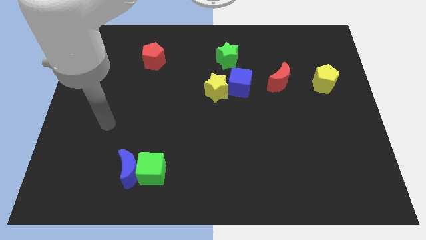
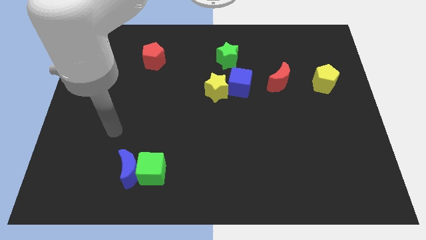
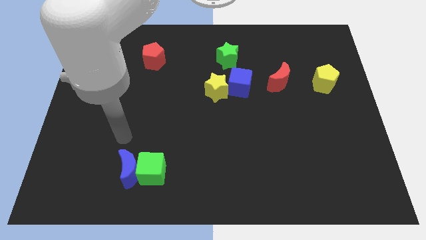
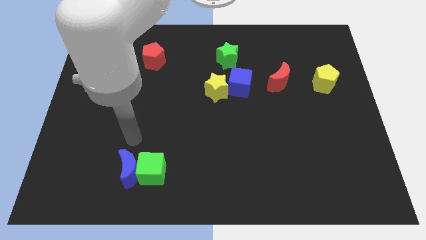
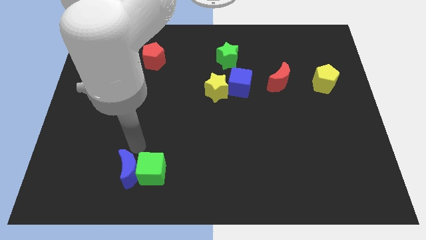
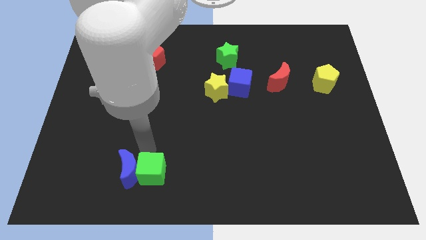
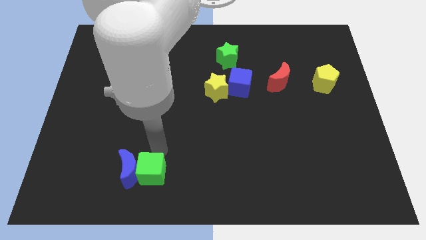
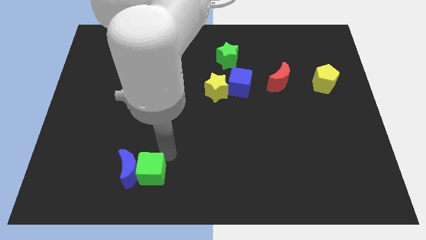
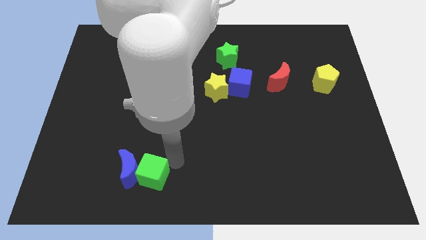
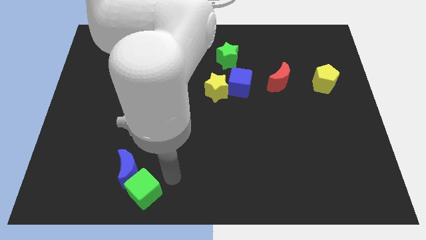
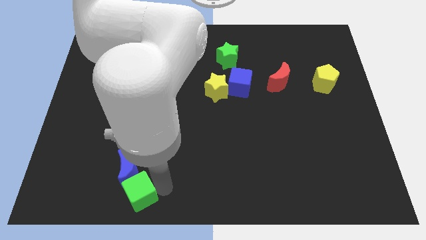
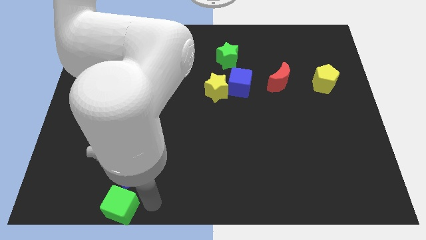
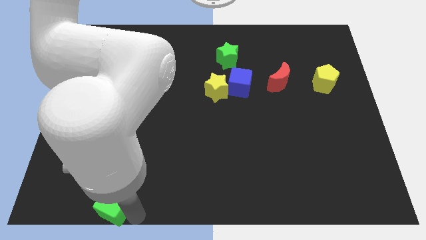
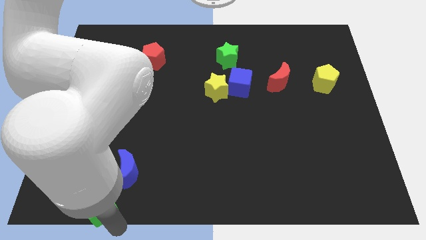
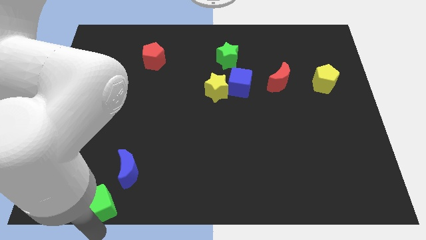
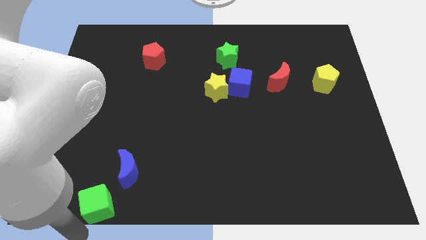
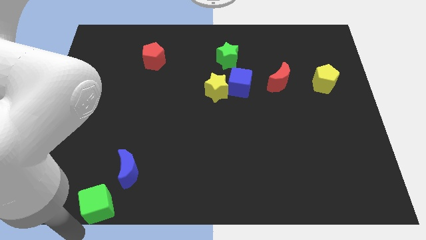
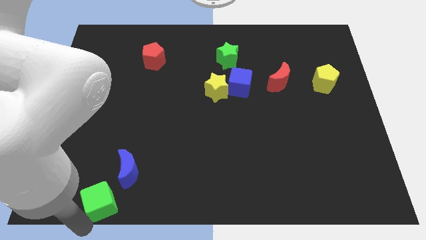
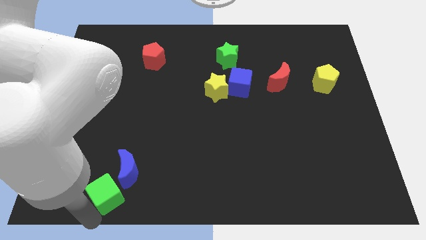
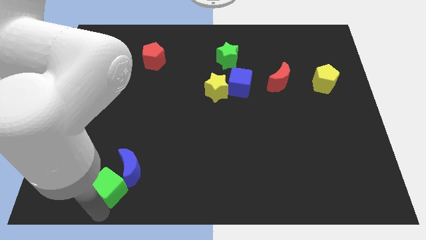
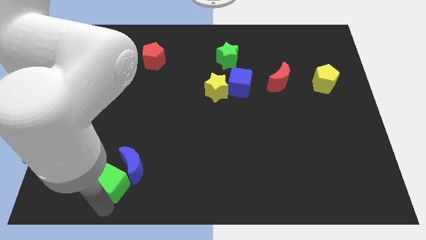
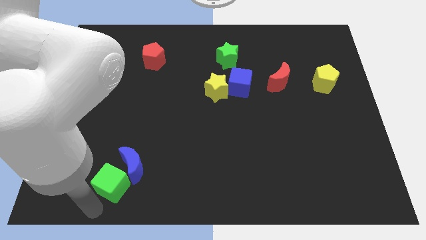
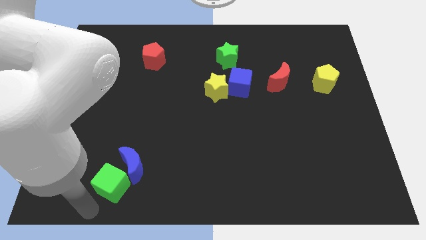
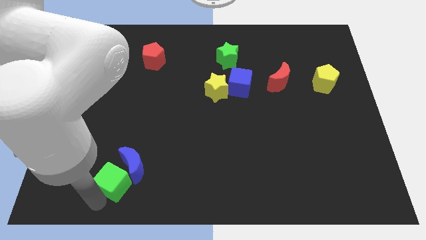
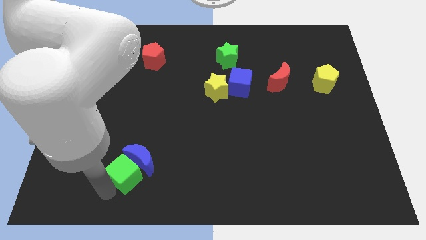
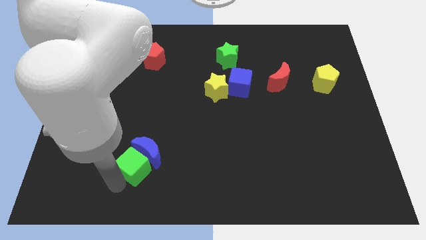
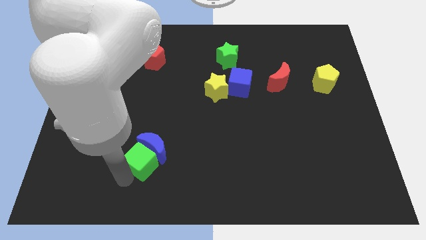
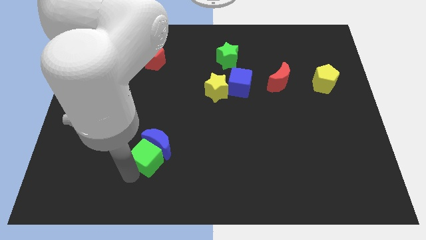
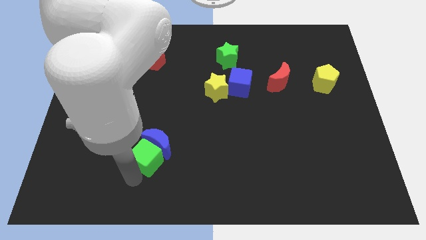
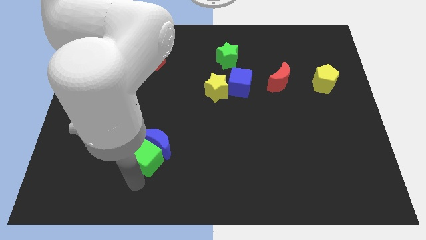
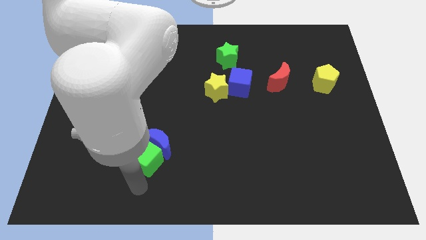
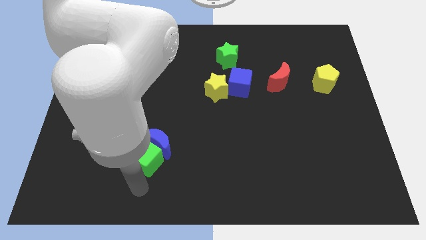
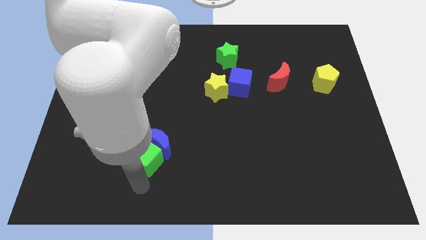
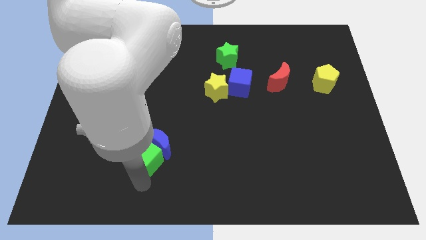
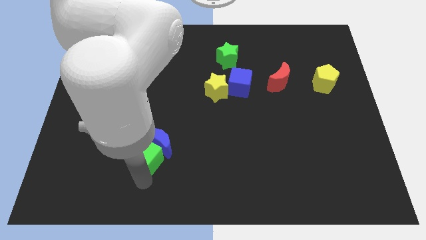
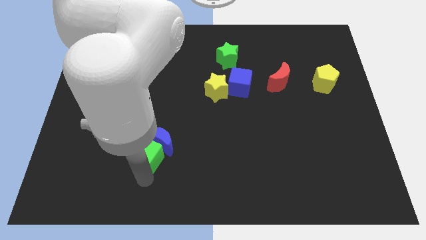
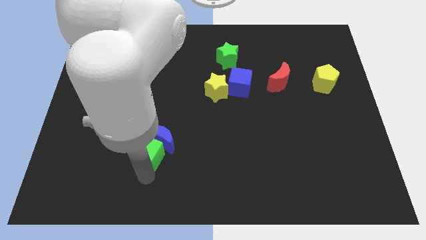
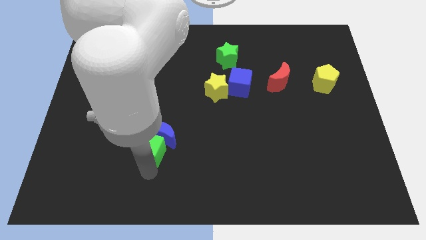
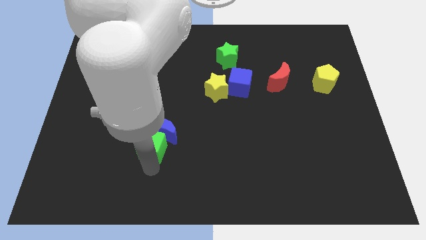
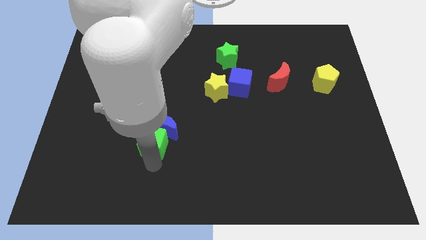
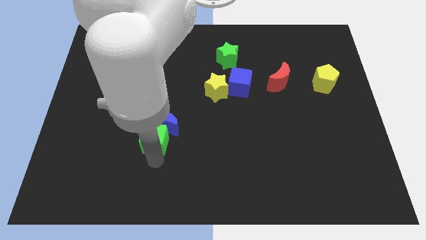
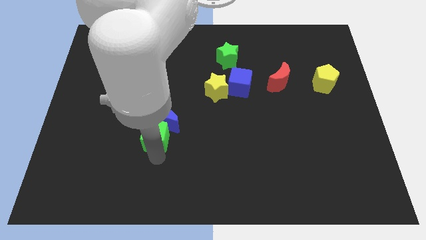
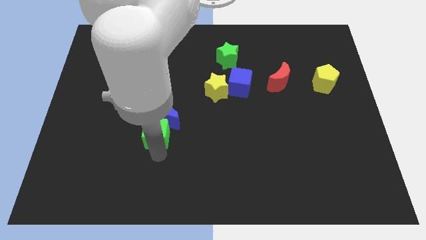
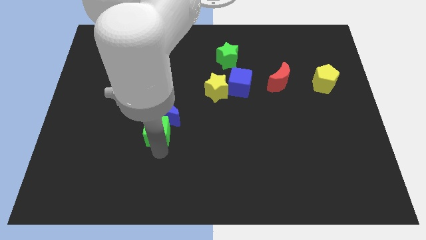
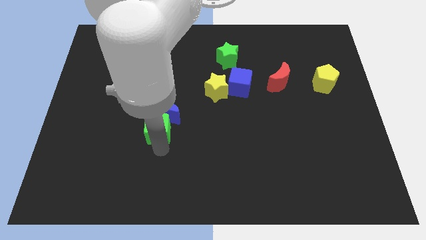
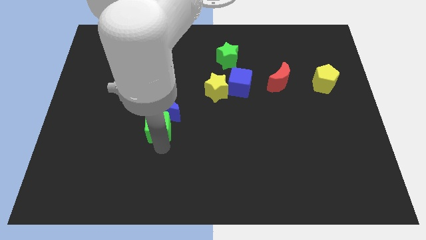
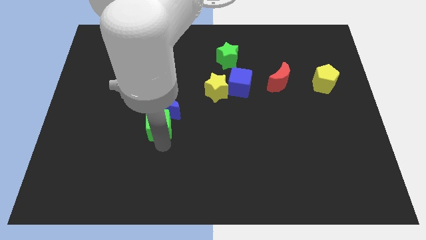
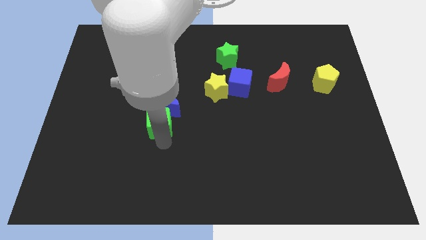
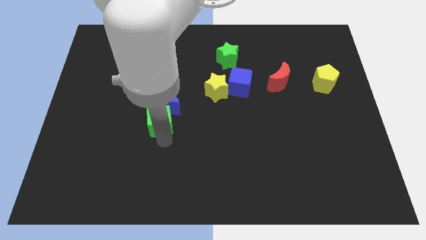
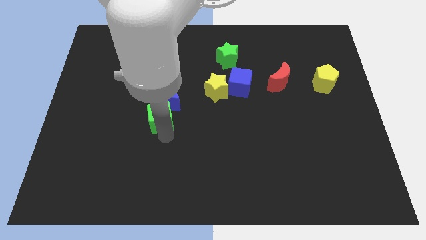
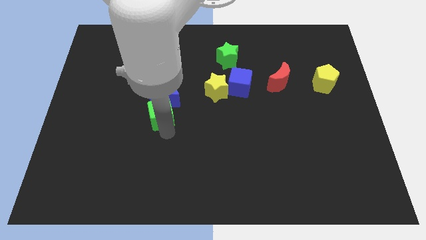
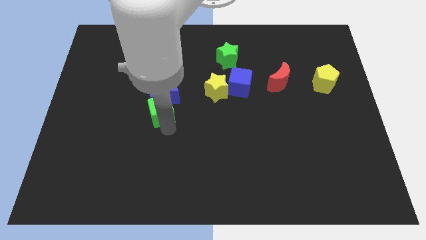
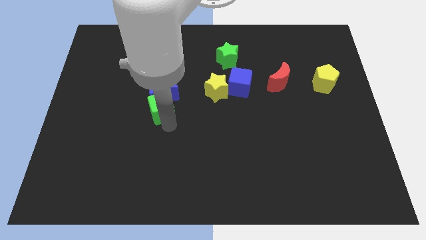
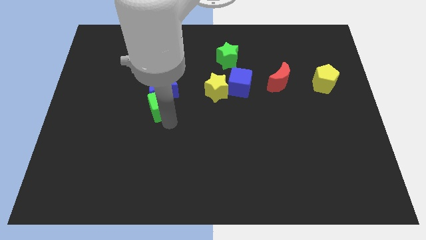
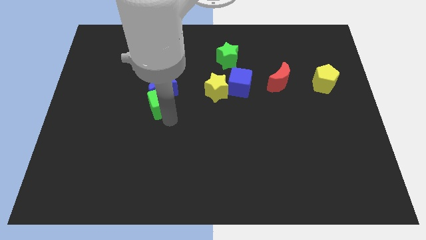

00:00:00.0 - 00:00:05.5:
slide the green cube to the bottom of the red pentagon

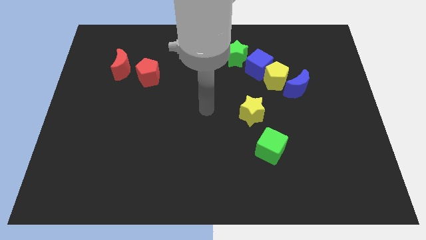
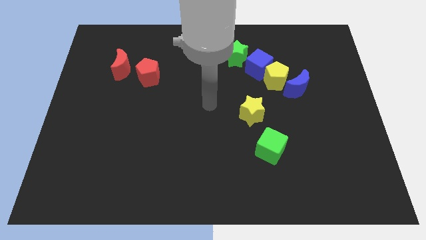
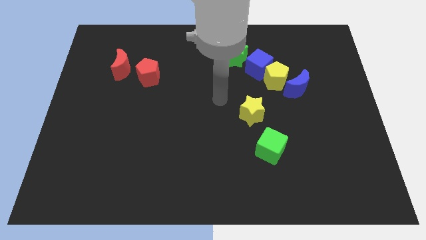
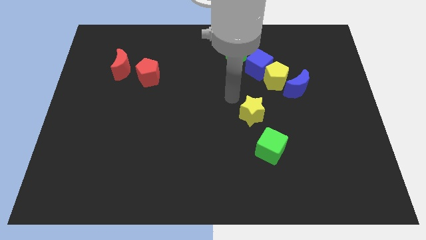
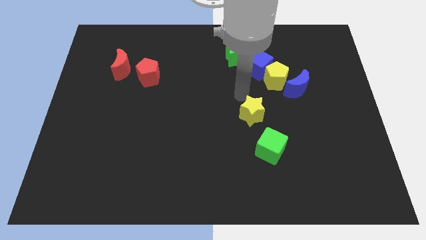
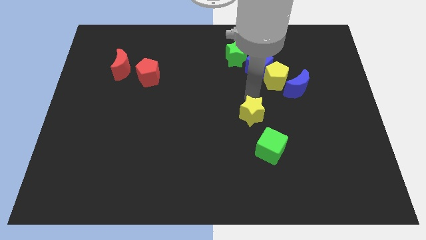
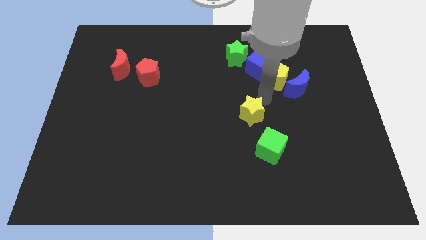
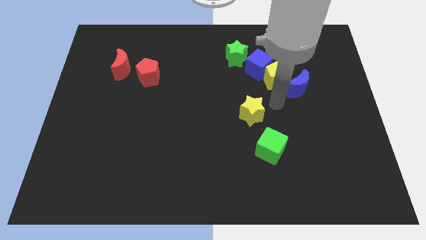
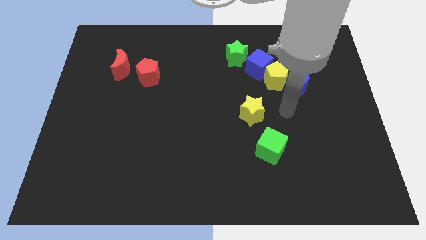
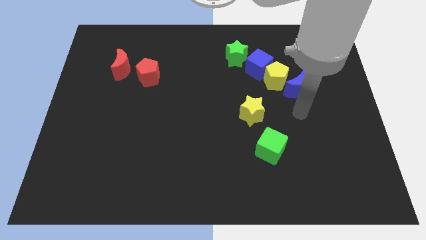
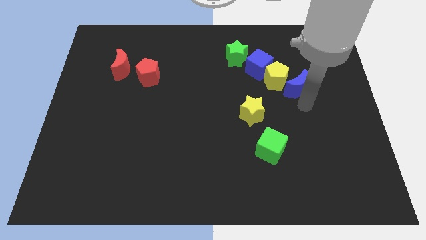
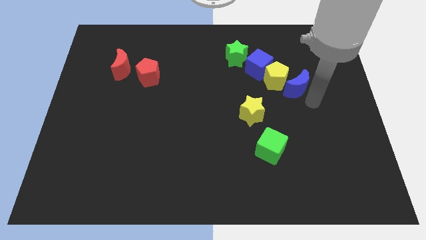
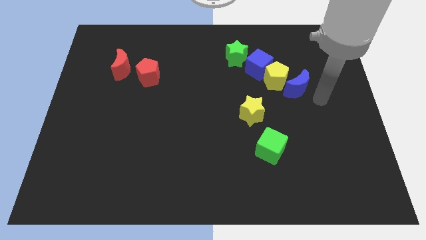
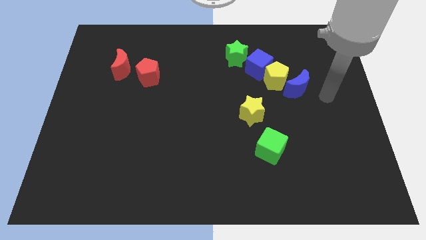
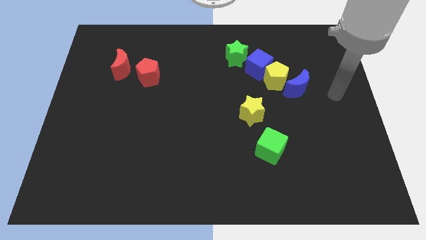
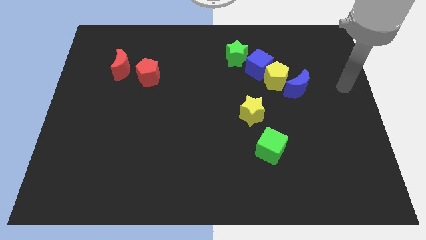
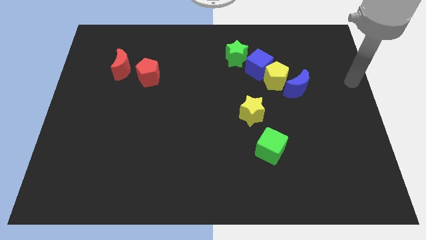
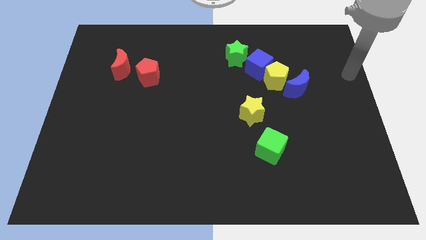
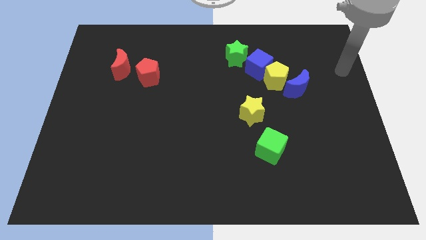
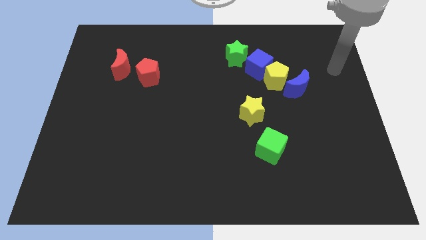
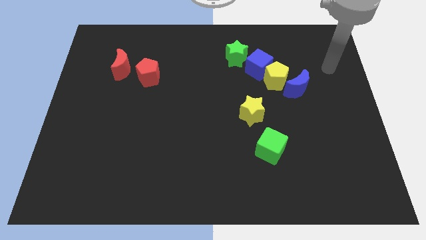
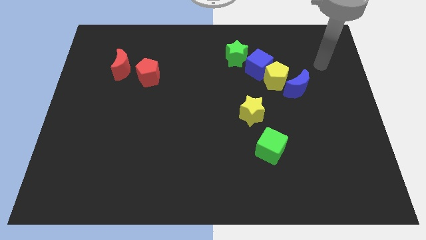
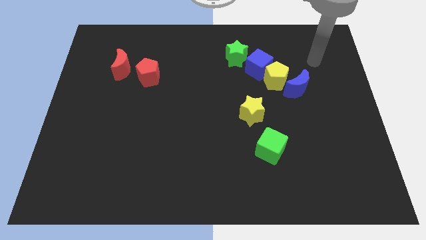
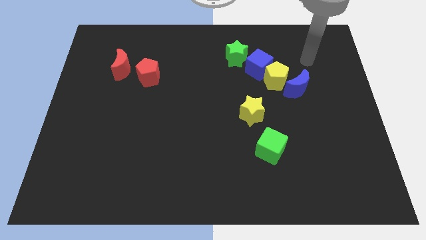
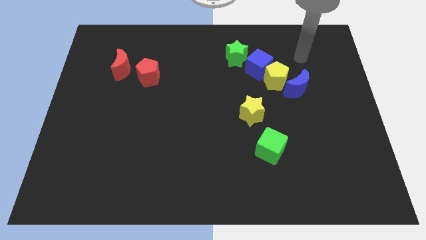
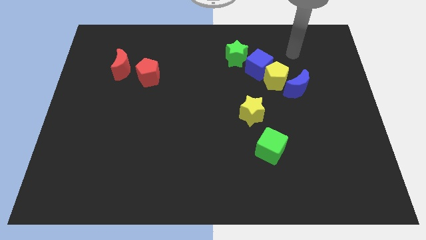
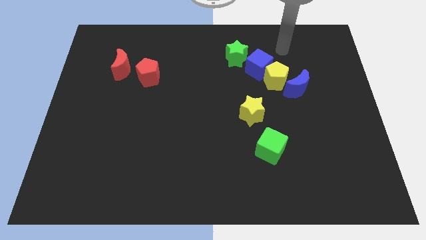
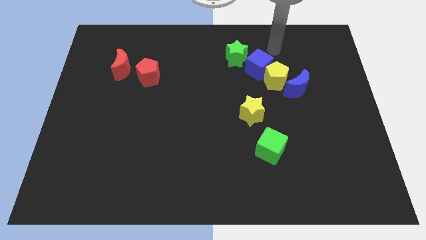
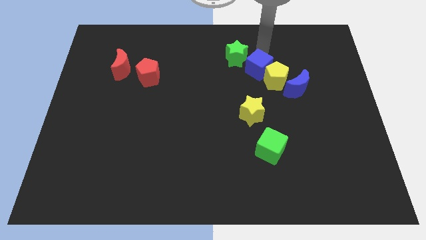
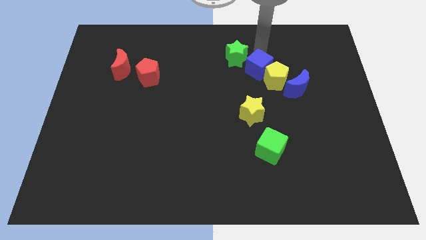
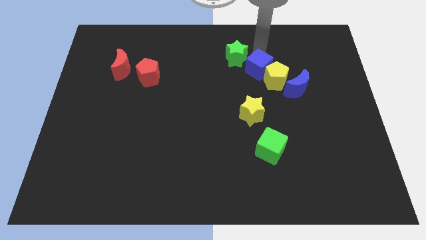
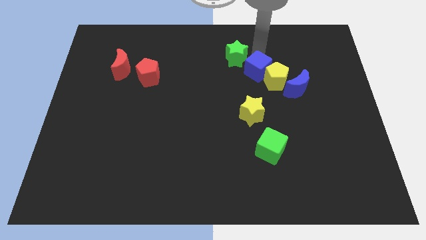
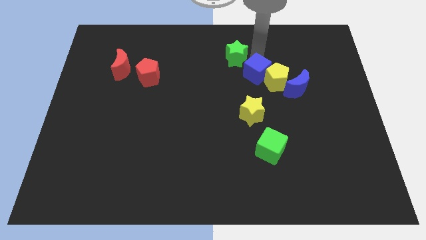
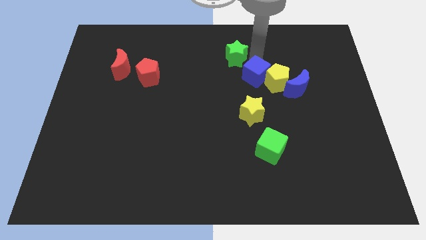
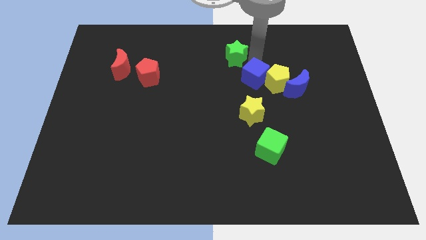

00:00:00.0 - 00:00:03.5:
move the blue cube diagonally down and to the left of the yellow pentagon
